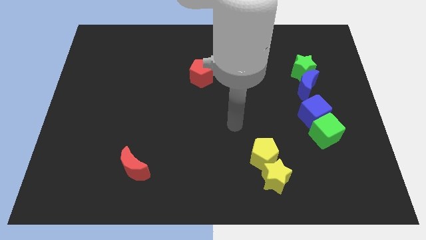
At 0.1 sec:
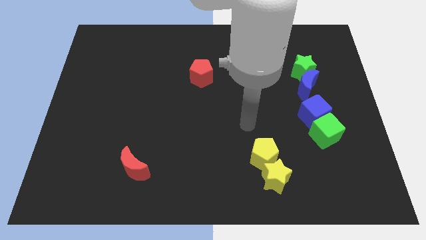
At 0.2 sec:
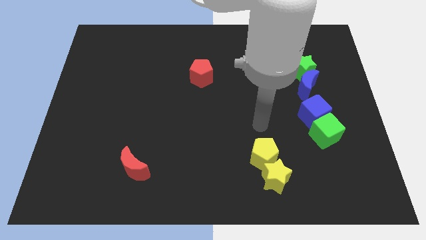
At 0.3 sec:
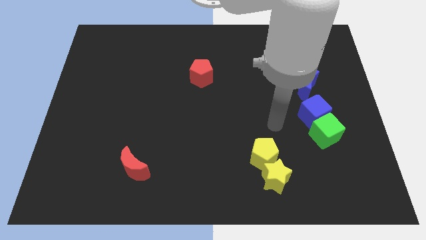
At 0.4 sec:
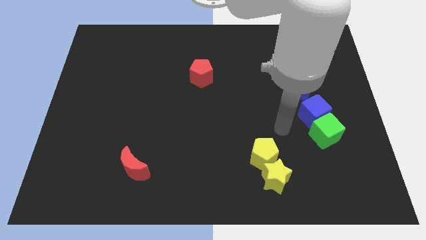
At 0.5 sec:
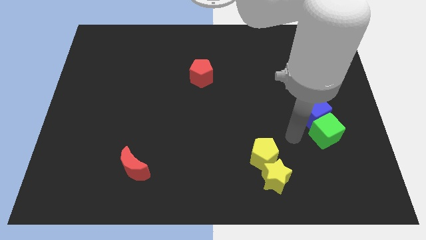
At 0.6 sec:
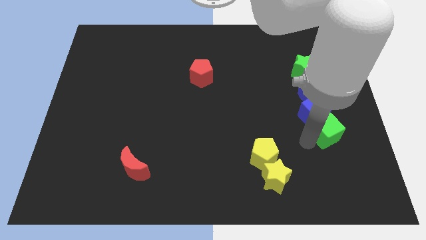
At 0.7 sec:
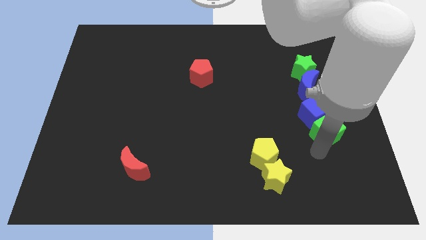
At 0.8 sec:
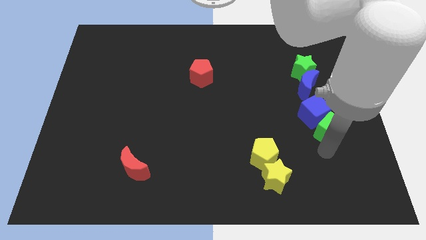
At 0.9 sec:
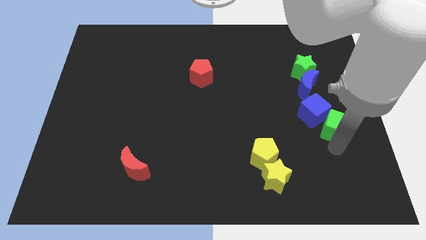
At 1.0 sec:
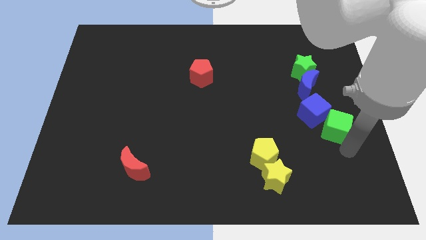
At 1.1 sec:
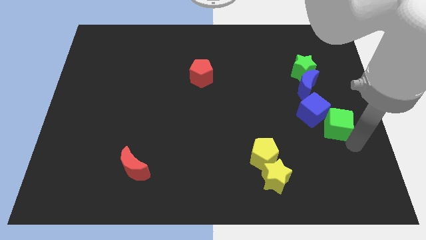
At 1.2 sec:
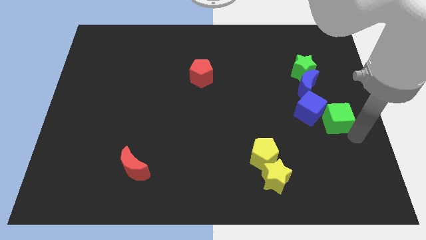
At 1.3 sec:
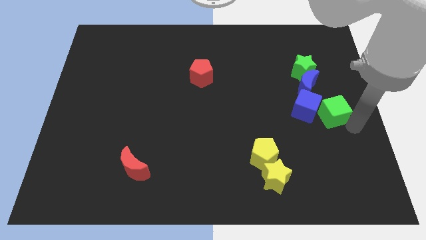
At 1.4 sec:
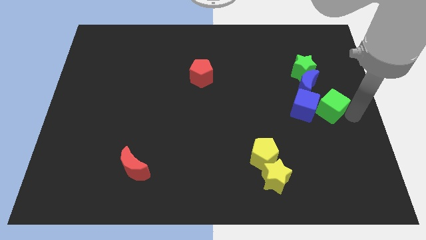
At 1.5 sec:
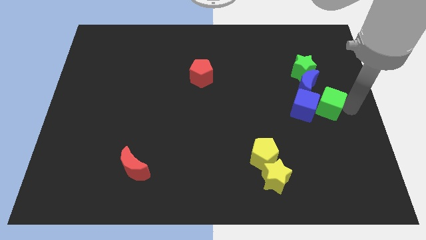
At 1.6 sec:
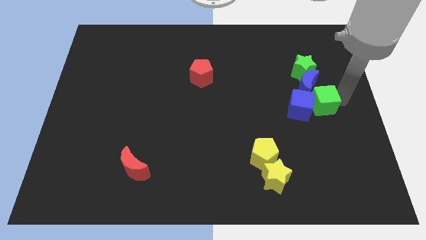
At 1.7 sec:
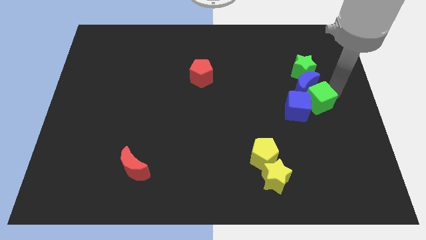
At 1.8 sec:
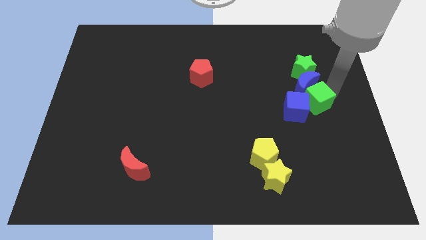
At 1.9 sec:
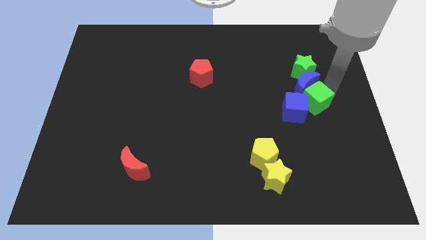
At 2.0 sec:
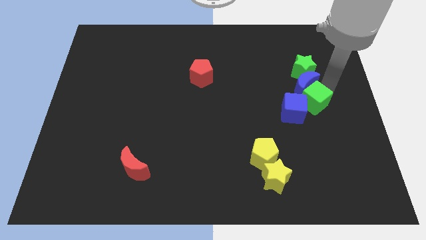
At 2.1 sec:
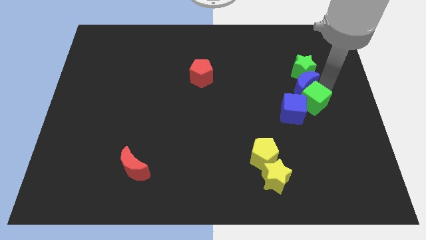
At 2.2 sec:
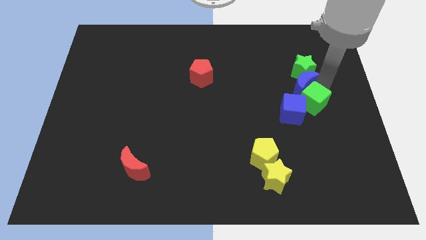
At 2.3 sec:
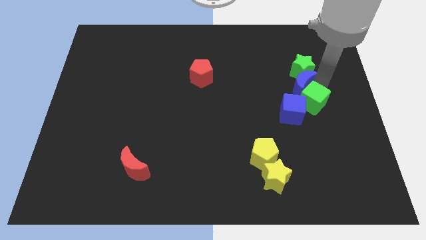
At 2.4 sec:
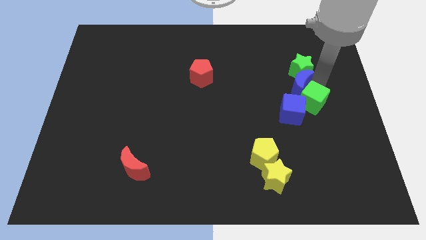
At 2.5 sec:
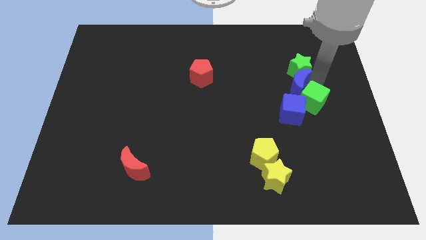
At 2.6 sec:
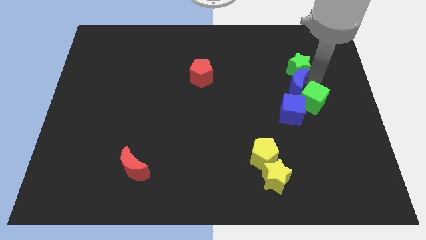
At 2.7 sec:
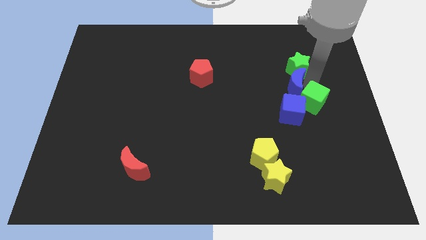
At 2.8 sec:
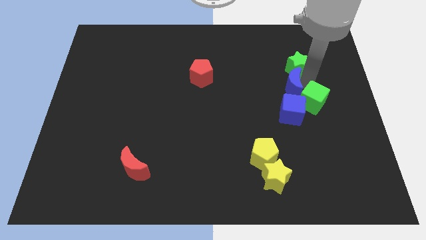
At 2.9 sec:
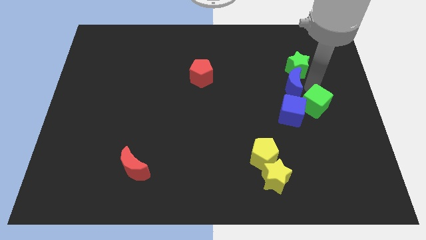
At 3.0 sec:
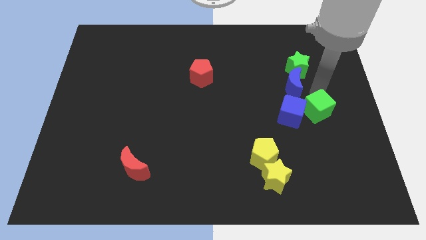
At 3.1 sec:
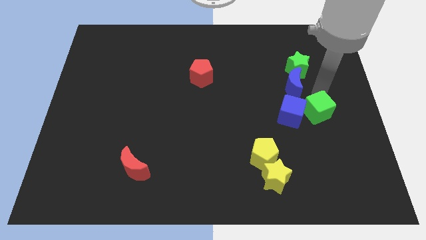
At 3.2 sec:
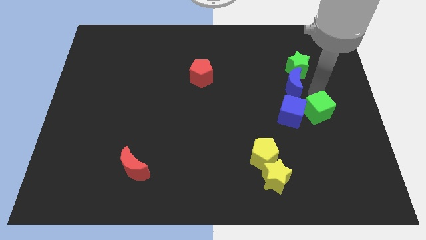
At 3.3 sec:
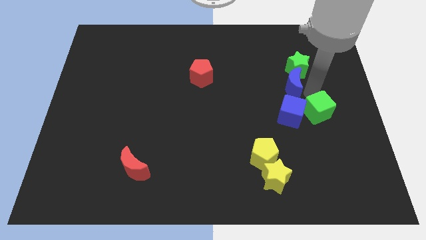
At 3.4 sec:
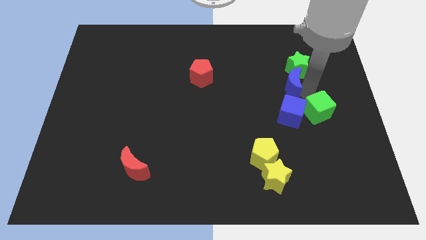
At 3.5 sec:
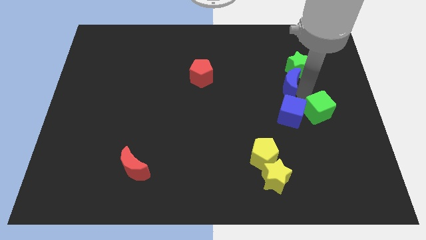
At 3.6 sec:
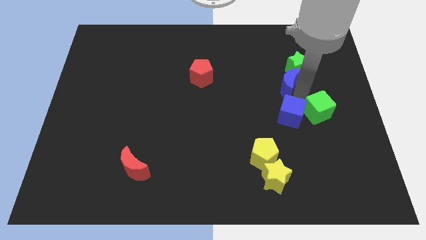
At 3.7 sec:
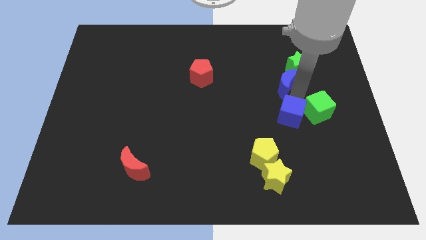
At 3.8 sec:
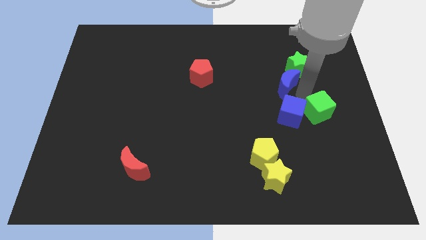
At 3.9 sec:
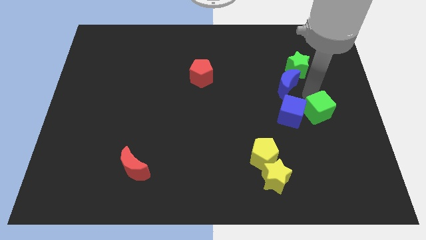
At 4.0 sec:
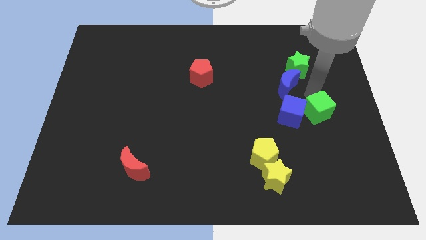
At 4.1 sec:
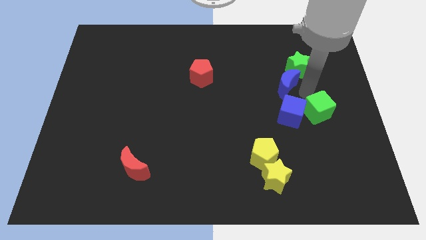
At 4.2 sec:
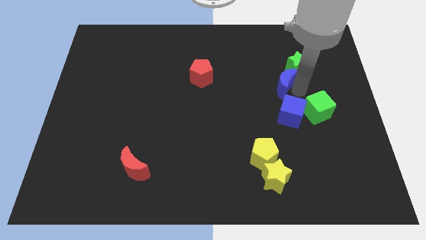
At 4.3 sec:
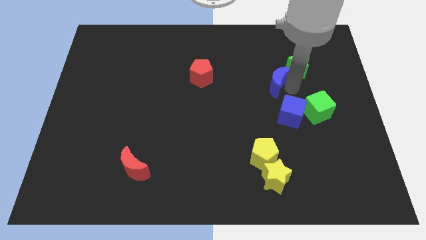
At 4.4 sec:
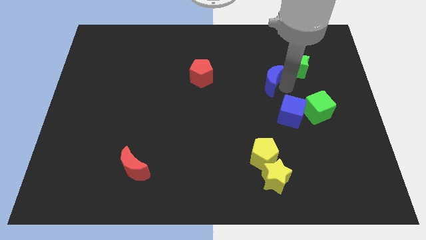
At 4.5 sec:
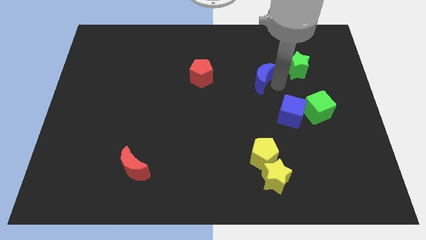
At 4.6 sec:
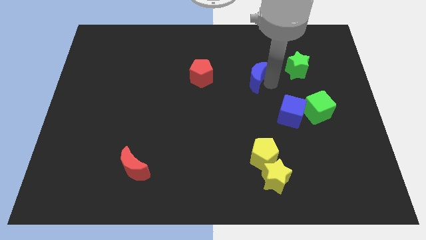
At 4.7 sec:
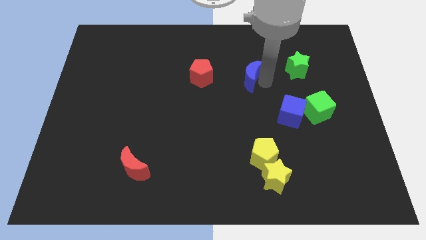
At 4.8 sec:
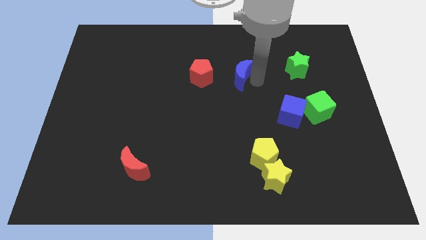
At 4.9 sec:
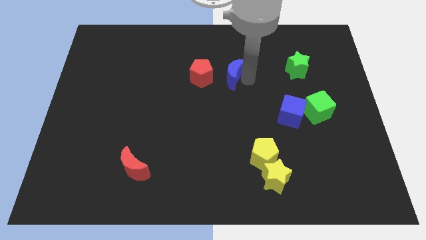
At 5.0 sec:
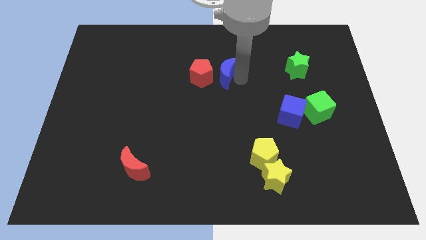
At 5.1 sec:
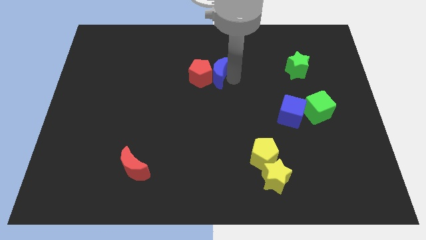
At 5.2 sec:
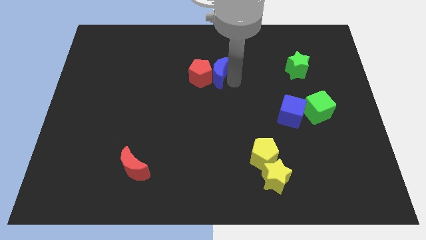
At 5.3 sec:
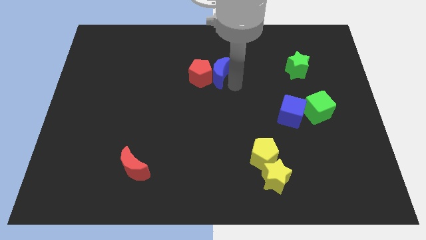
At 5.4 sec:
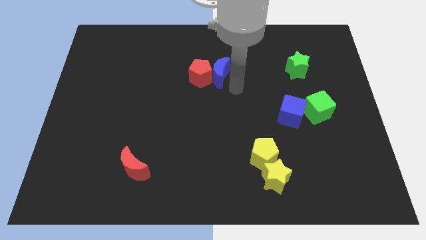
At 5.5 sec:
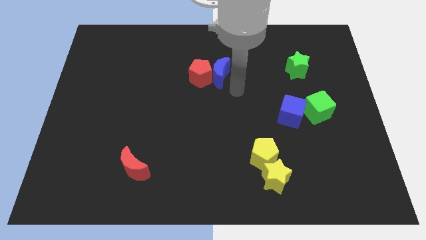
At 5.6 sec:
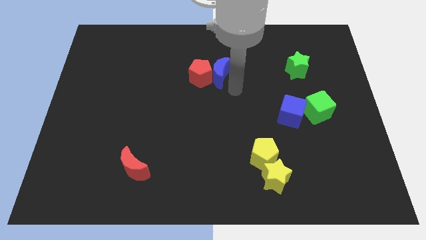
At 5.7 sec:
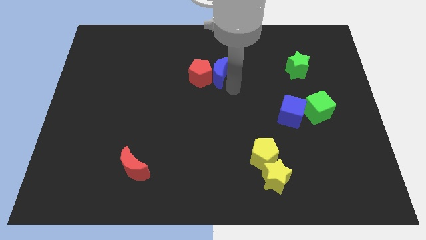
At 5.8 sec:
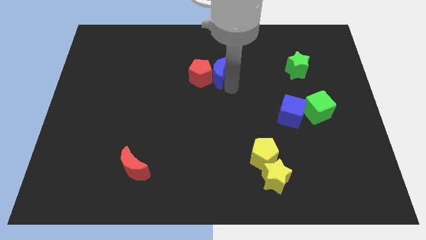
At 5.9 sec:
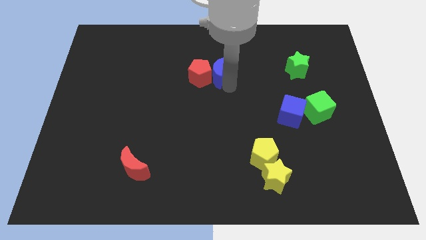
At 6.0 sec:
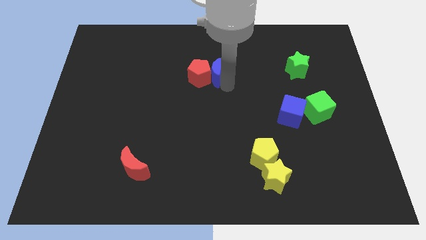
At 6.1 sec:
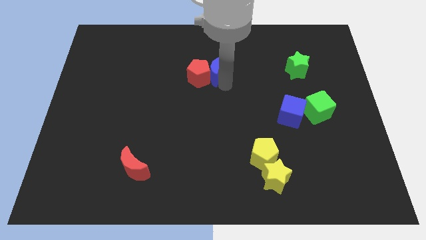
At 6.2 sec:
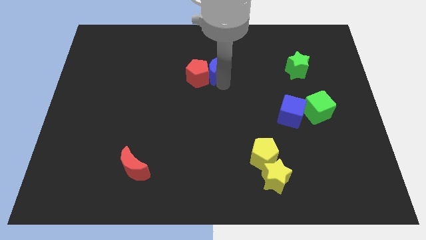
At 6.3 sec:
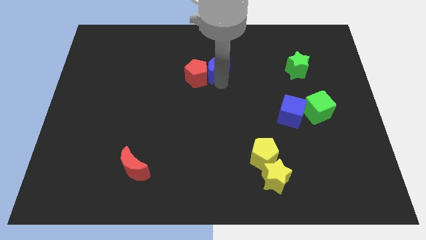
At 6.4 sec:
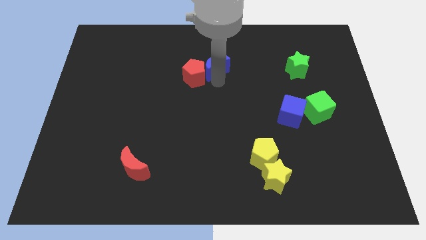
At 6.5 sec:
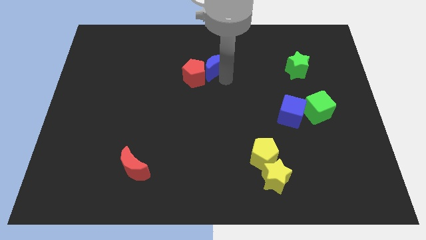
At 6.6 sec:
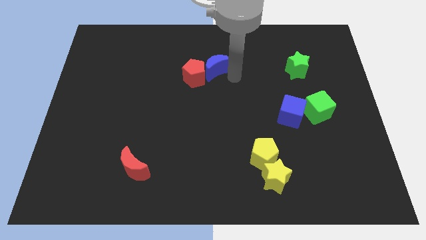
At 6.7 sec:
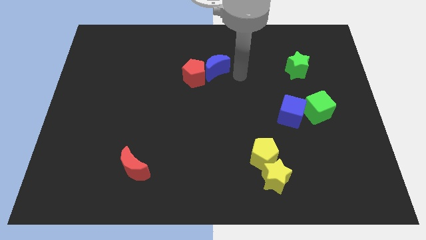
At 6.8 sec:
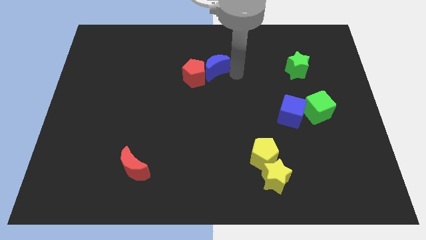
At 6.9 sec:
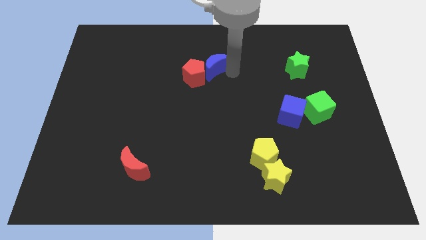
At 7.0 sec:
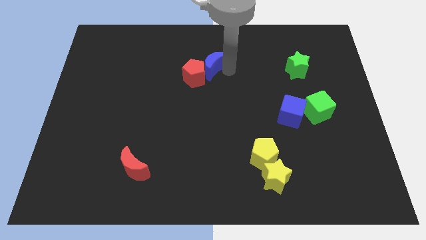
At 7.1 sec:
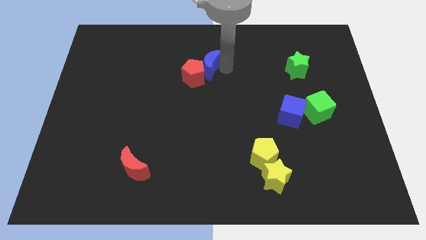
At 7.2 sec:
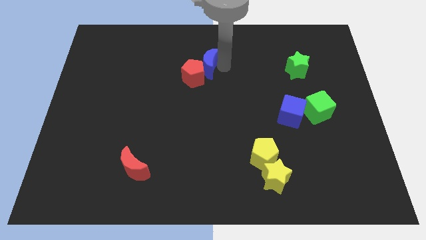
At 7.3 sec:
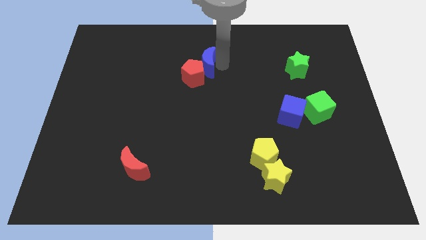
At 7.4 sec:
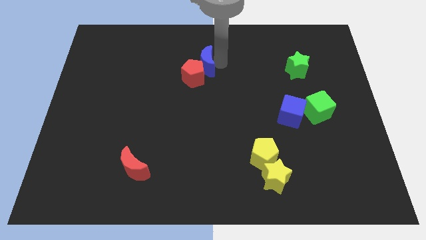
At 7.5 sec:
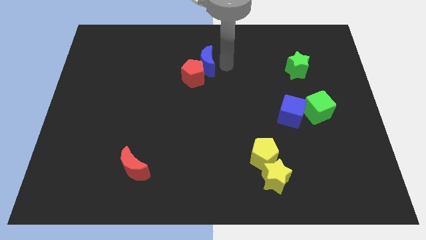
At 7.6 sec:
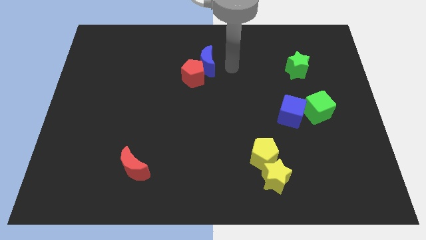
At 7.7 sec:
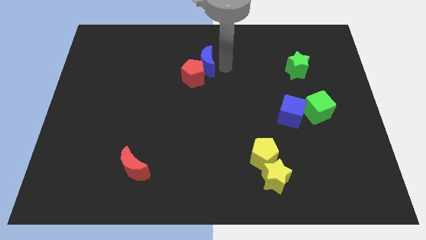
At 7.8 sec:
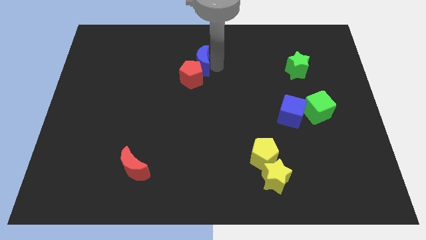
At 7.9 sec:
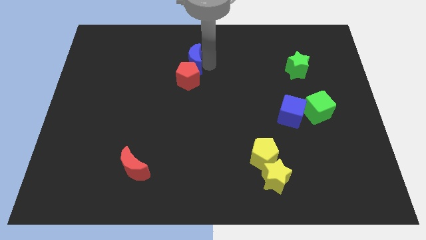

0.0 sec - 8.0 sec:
move the blue moon diagonally up and to the left of the red pentagon
